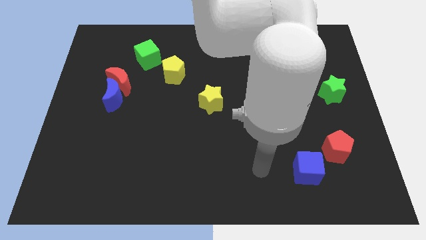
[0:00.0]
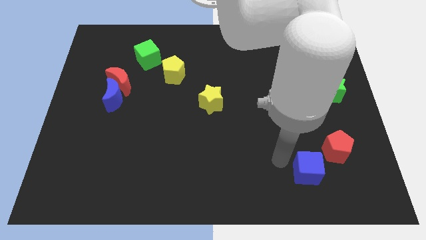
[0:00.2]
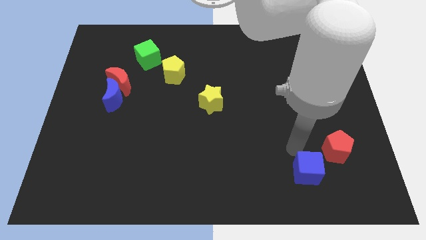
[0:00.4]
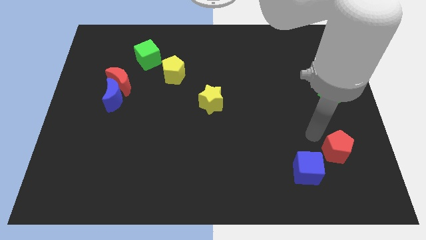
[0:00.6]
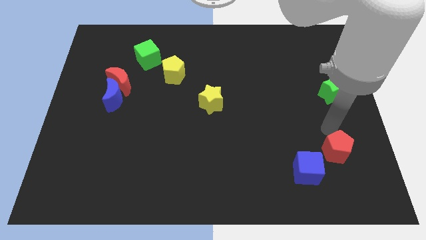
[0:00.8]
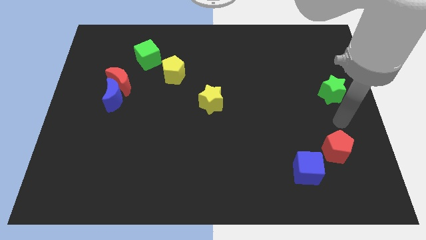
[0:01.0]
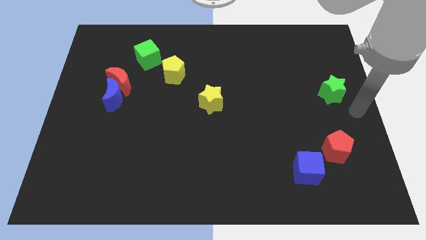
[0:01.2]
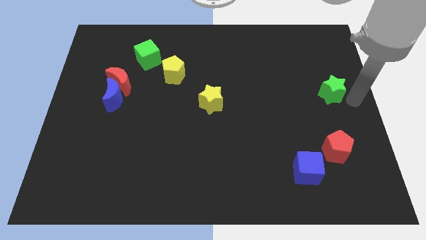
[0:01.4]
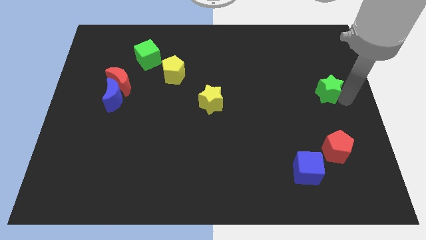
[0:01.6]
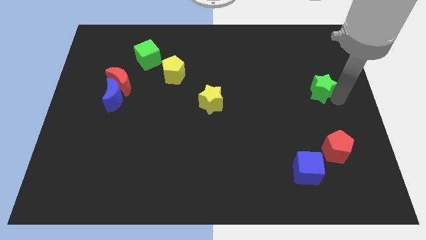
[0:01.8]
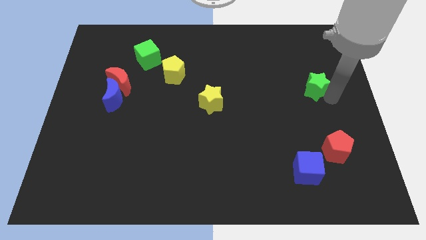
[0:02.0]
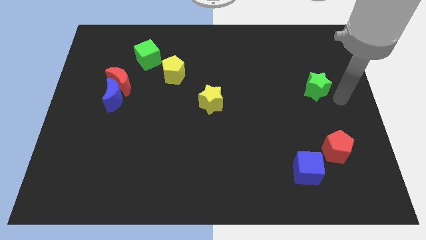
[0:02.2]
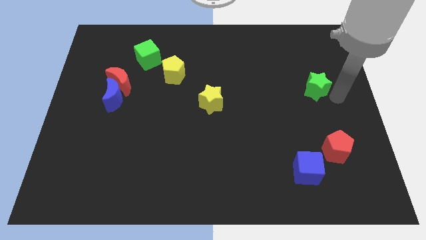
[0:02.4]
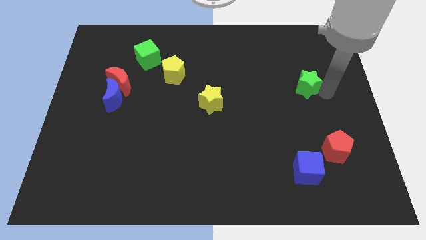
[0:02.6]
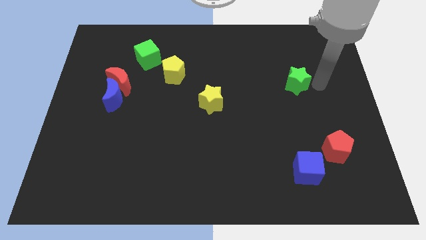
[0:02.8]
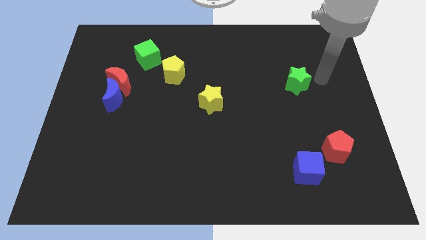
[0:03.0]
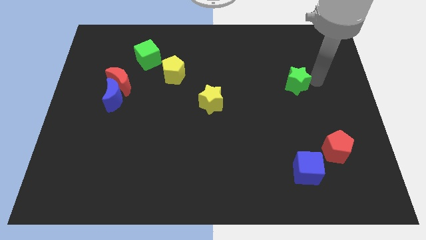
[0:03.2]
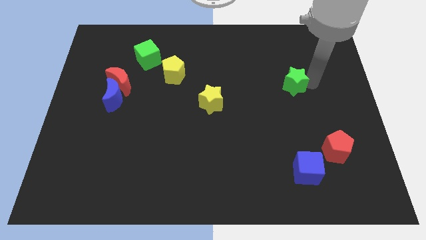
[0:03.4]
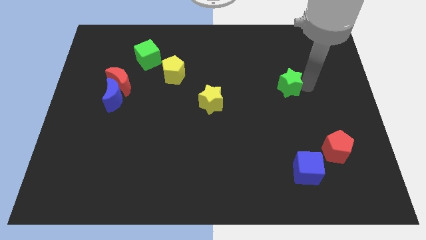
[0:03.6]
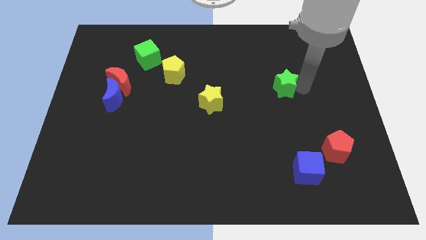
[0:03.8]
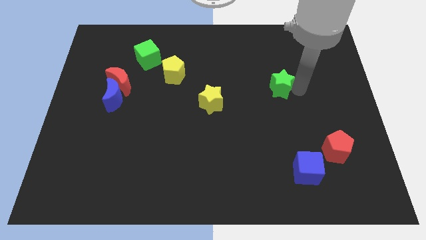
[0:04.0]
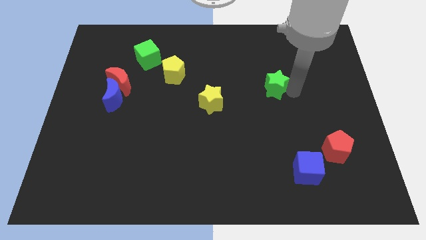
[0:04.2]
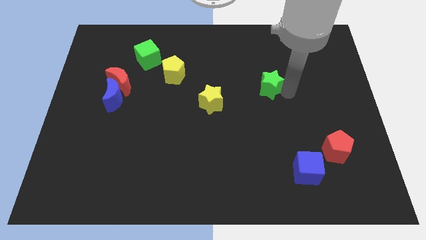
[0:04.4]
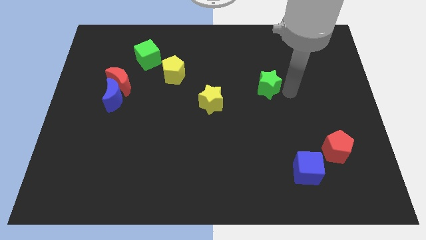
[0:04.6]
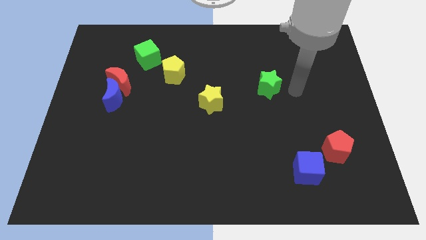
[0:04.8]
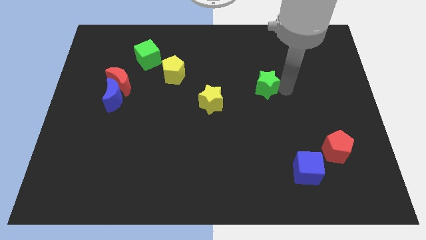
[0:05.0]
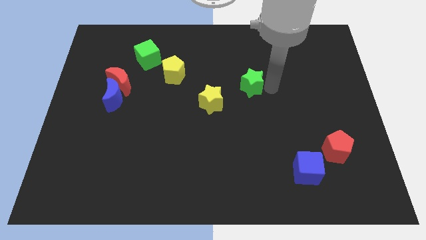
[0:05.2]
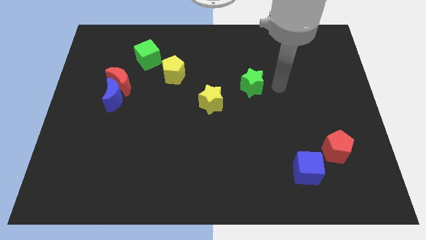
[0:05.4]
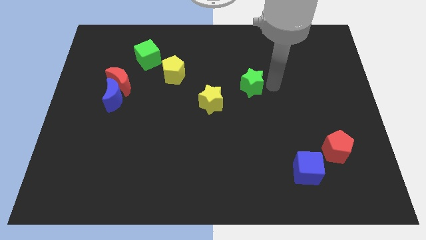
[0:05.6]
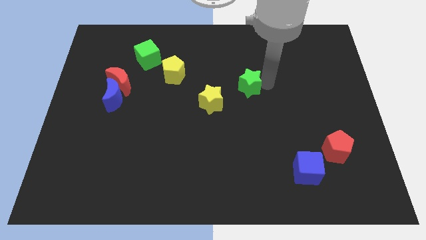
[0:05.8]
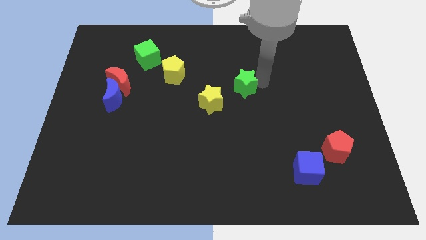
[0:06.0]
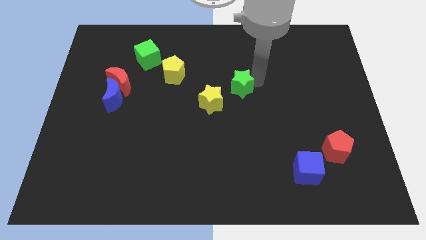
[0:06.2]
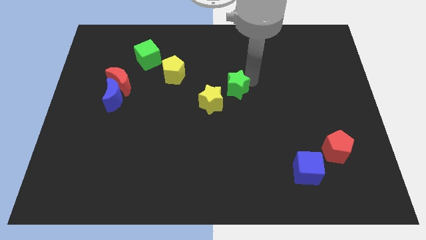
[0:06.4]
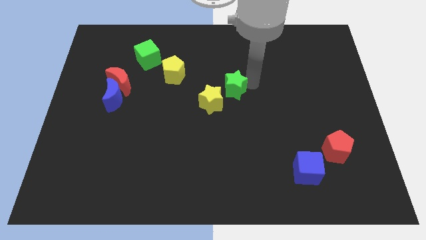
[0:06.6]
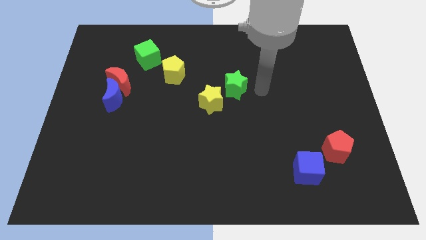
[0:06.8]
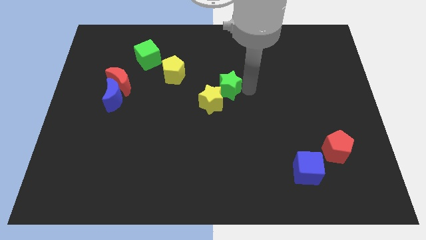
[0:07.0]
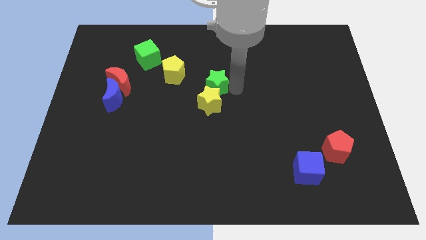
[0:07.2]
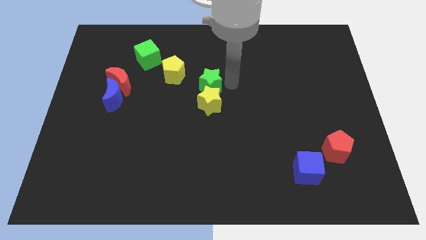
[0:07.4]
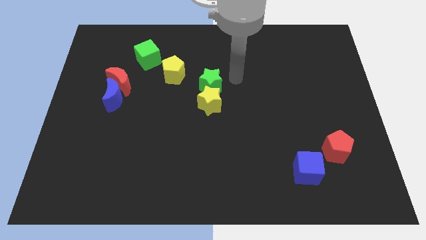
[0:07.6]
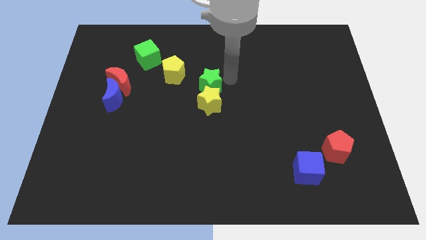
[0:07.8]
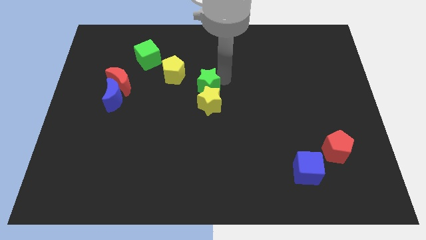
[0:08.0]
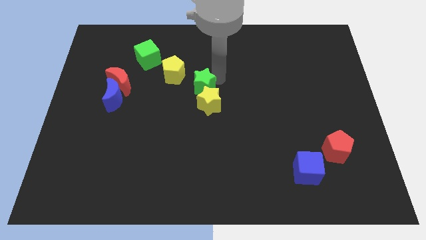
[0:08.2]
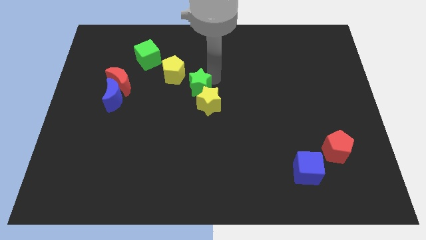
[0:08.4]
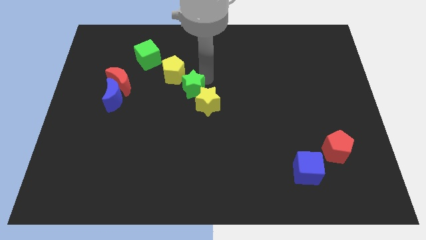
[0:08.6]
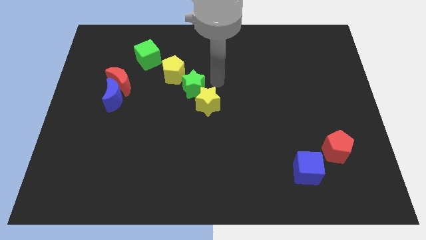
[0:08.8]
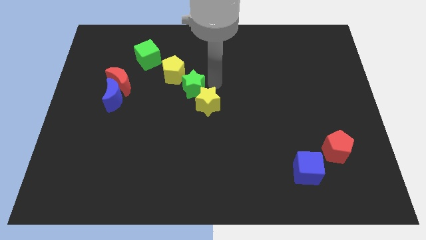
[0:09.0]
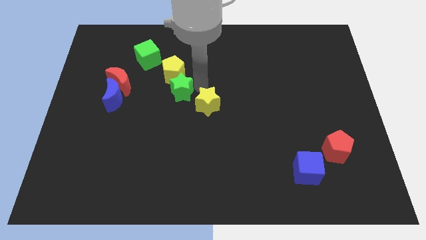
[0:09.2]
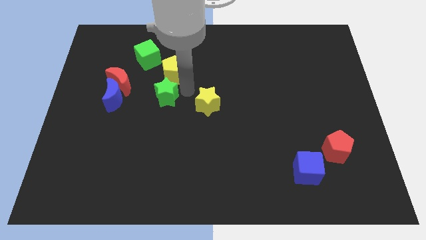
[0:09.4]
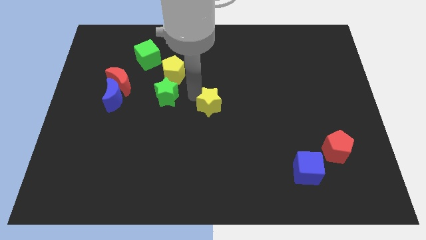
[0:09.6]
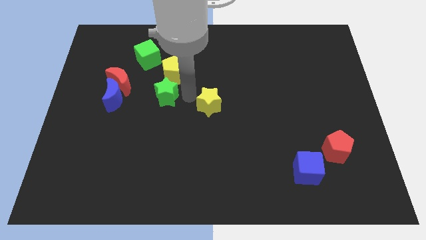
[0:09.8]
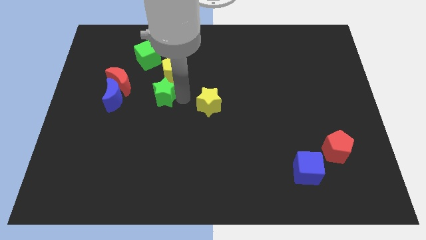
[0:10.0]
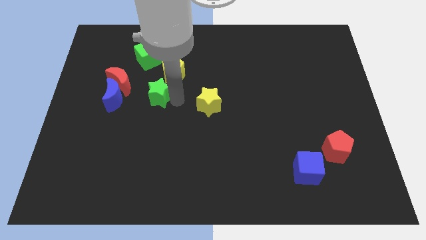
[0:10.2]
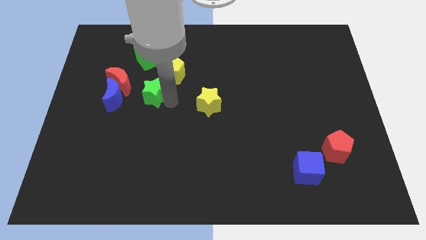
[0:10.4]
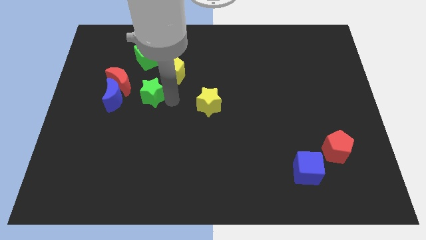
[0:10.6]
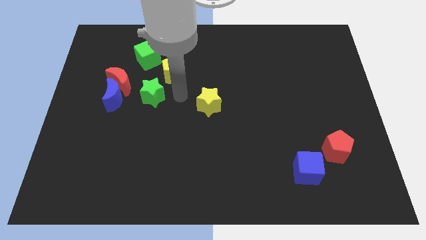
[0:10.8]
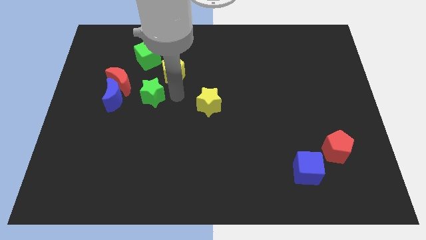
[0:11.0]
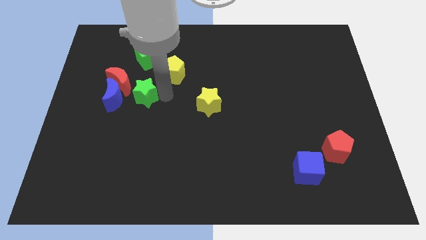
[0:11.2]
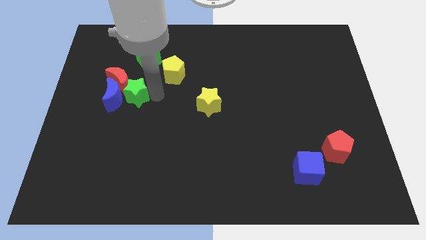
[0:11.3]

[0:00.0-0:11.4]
move the green star to the blue moon
